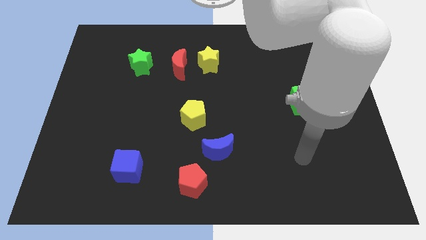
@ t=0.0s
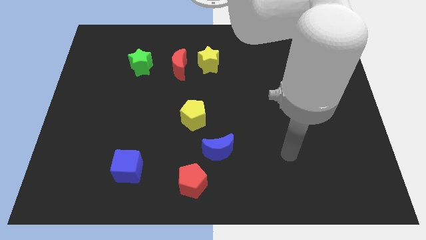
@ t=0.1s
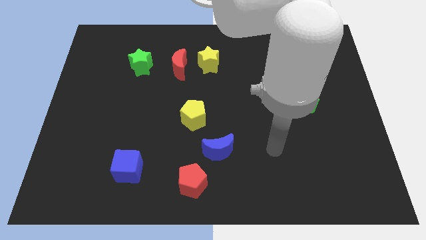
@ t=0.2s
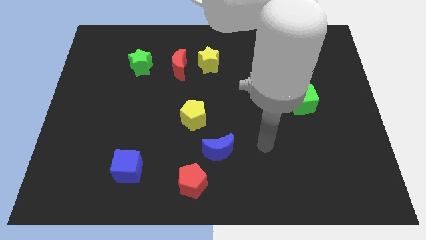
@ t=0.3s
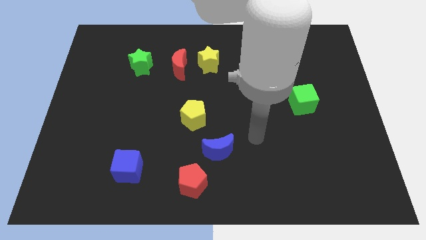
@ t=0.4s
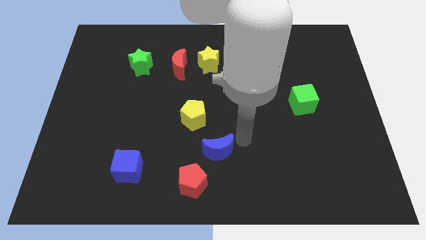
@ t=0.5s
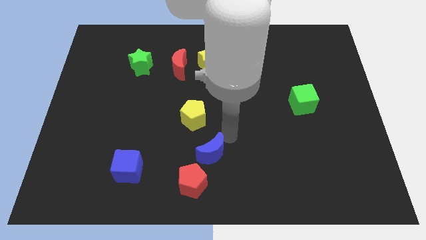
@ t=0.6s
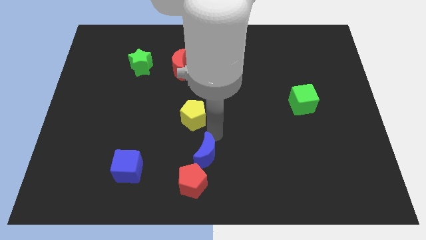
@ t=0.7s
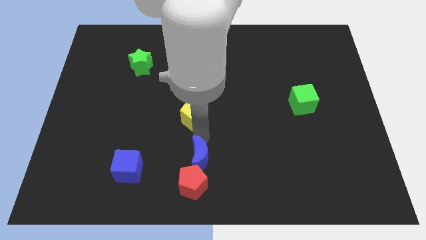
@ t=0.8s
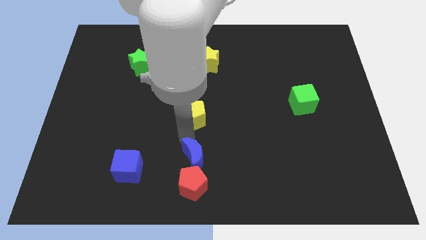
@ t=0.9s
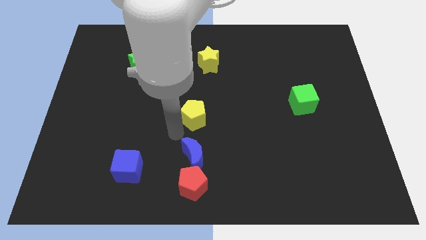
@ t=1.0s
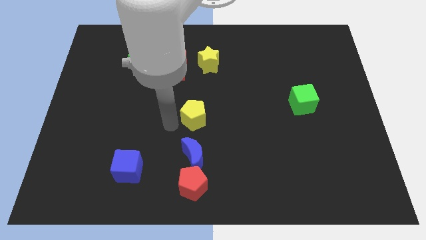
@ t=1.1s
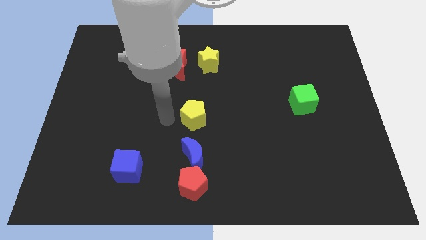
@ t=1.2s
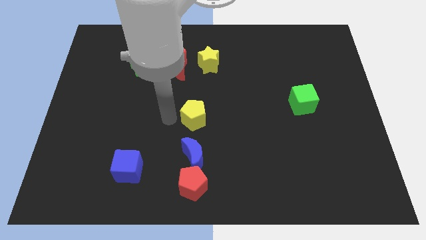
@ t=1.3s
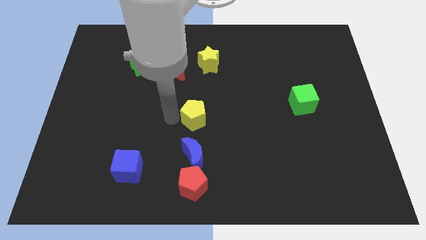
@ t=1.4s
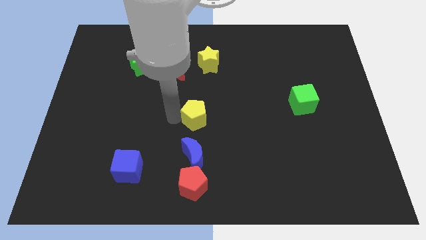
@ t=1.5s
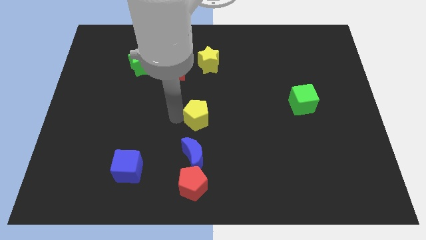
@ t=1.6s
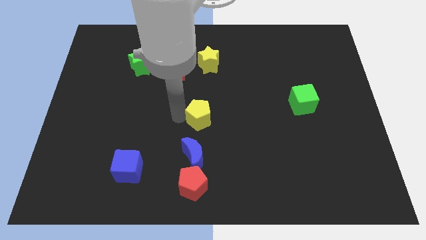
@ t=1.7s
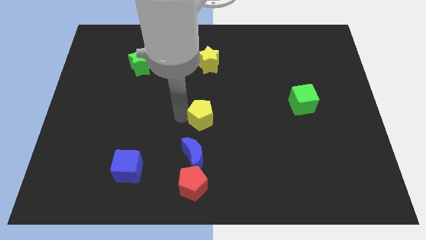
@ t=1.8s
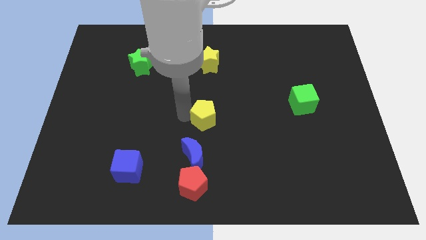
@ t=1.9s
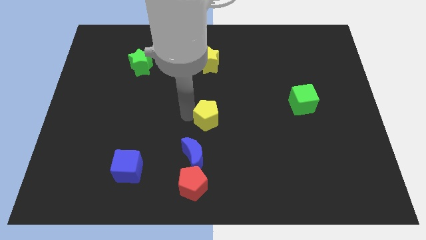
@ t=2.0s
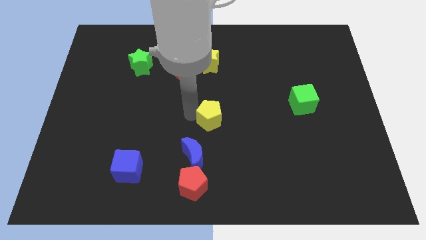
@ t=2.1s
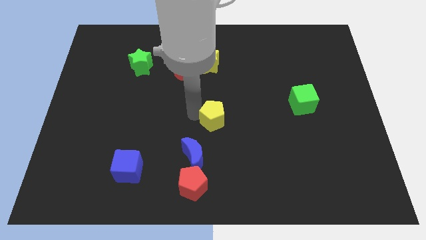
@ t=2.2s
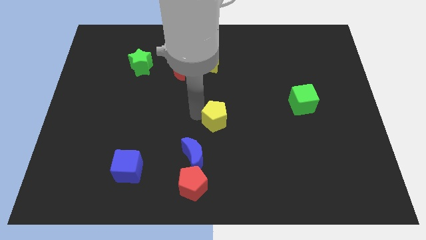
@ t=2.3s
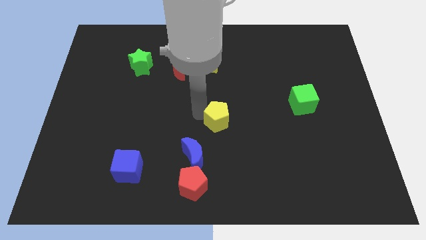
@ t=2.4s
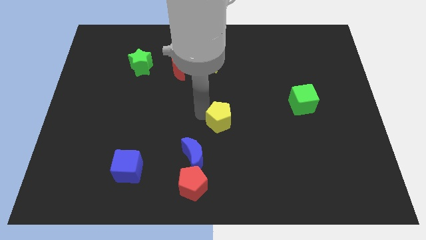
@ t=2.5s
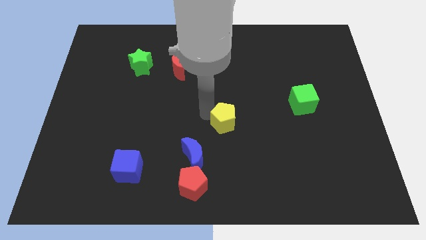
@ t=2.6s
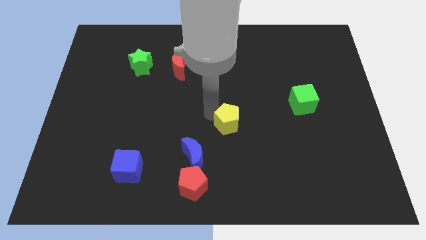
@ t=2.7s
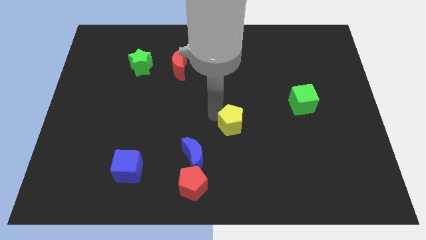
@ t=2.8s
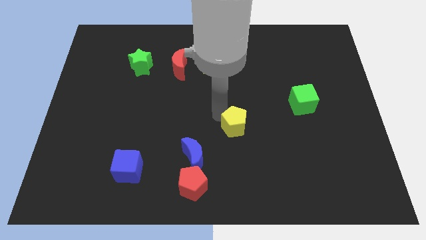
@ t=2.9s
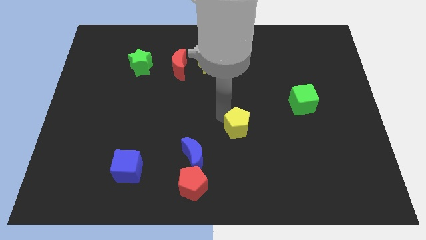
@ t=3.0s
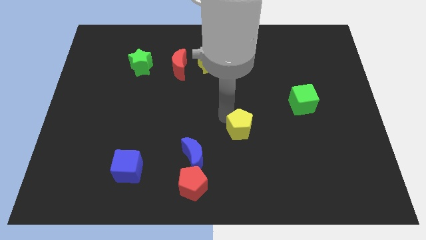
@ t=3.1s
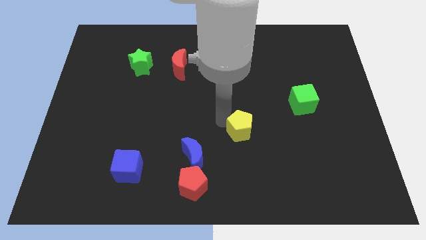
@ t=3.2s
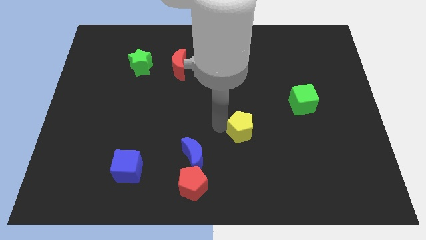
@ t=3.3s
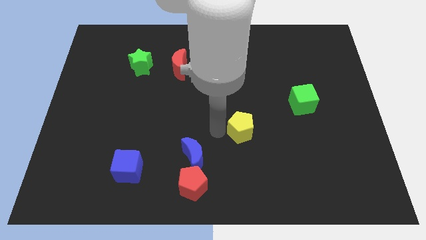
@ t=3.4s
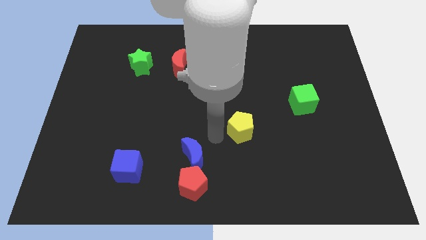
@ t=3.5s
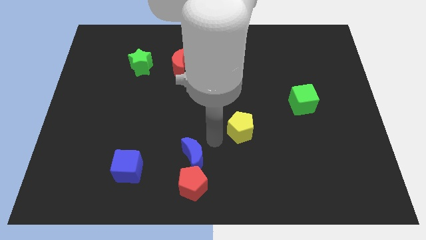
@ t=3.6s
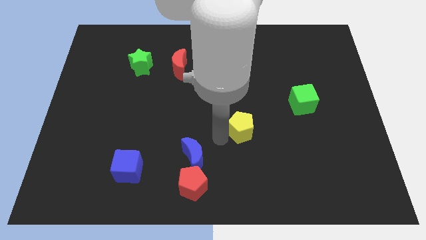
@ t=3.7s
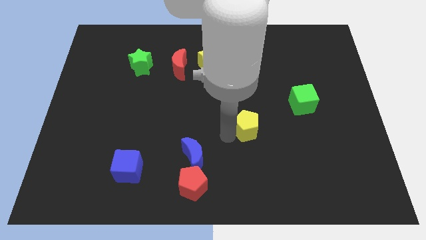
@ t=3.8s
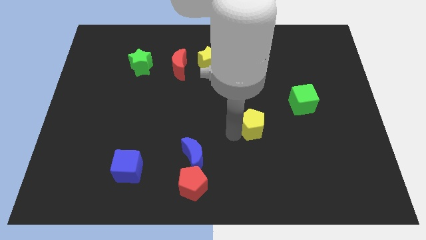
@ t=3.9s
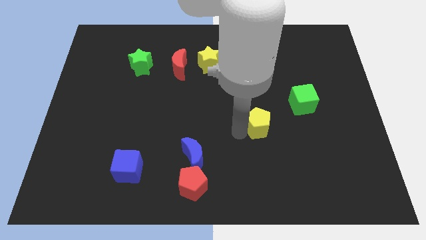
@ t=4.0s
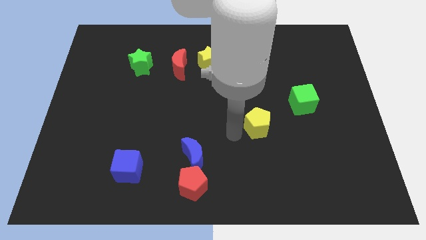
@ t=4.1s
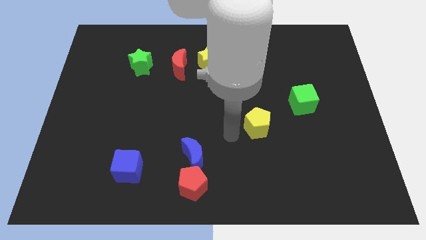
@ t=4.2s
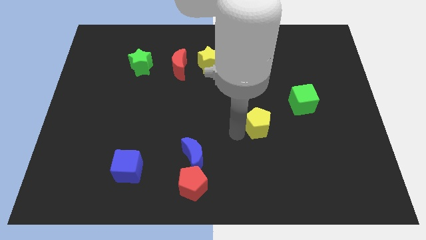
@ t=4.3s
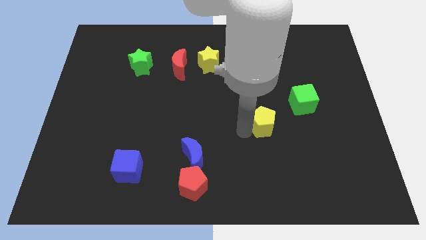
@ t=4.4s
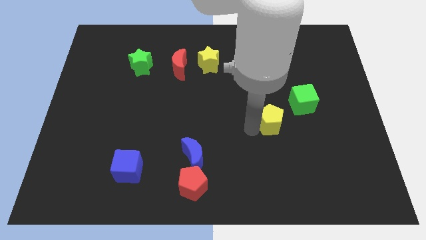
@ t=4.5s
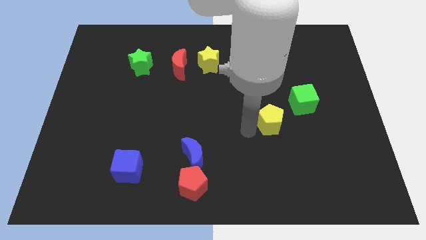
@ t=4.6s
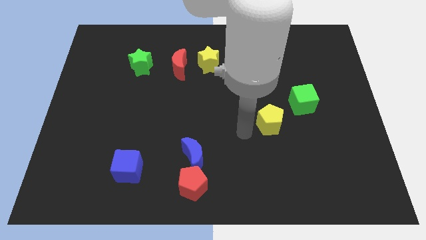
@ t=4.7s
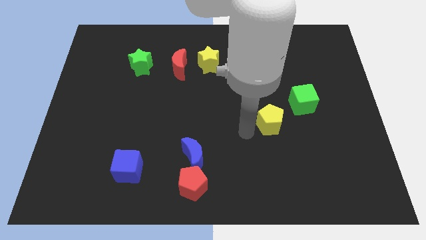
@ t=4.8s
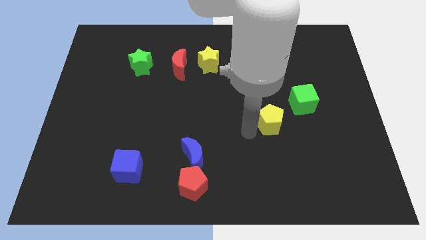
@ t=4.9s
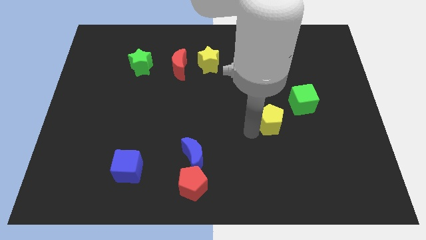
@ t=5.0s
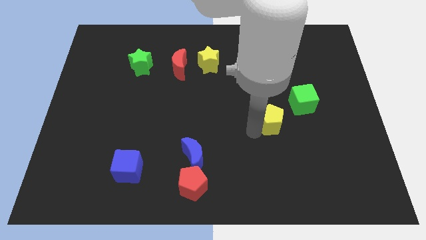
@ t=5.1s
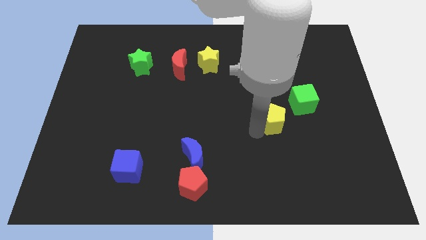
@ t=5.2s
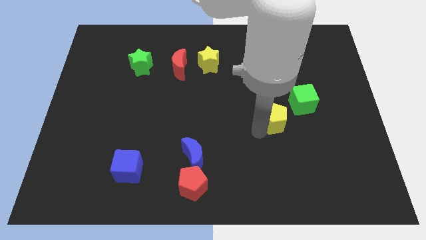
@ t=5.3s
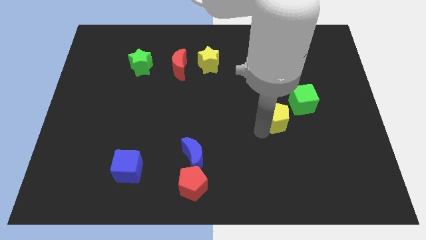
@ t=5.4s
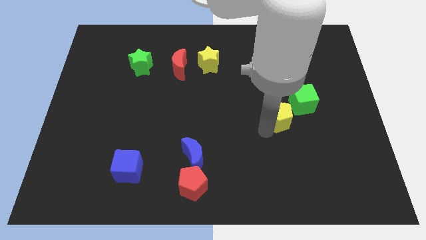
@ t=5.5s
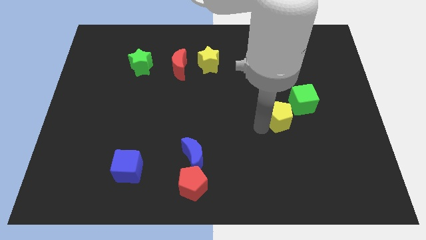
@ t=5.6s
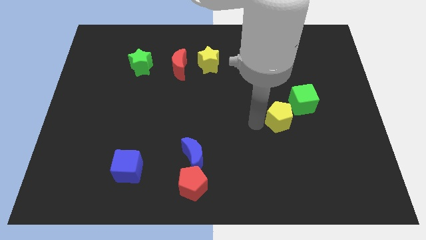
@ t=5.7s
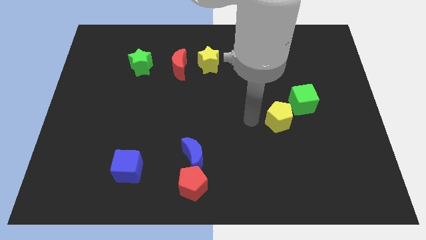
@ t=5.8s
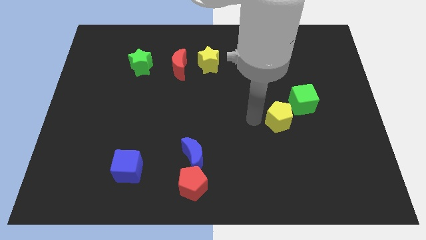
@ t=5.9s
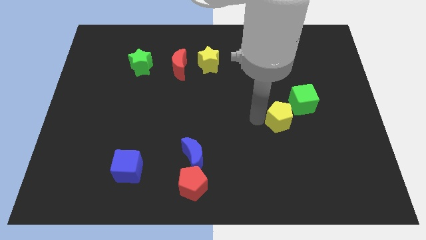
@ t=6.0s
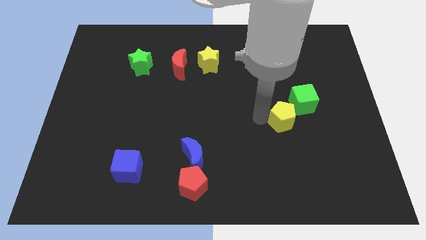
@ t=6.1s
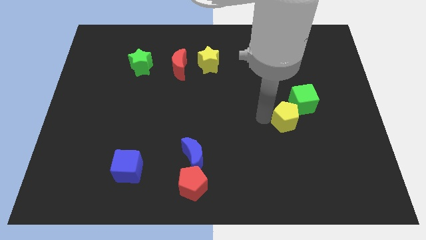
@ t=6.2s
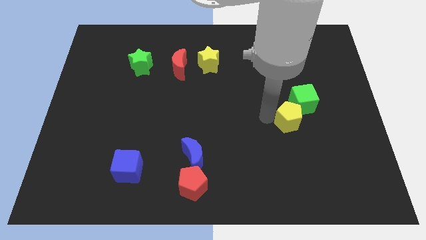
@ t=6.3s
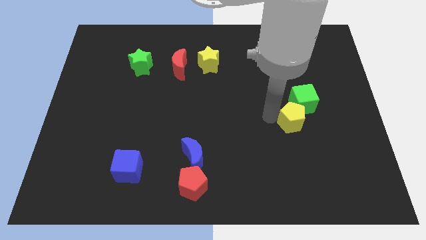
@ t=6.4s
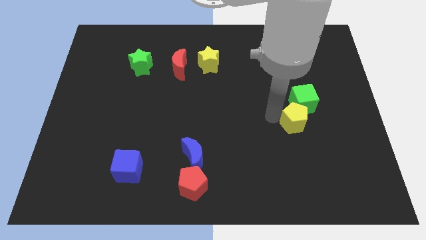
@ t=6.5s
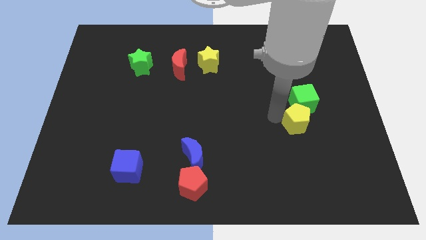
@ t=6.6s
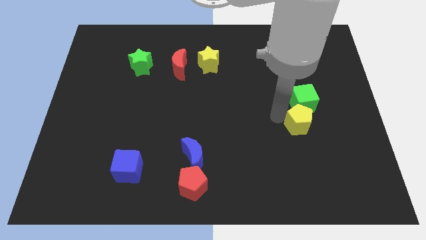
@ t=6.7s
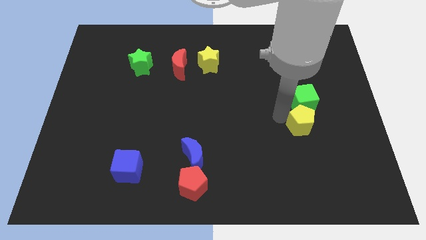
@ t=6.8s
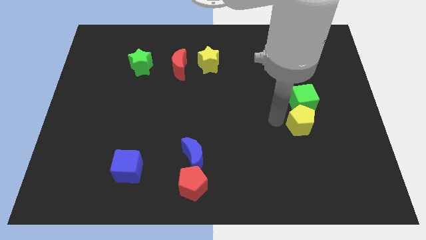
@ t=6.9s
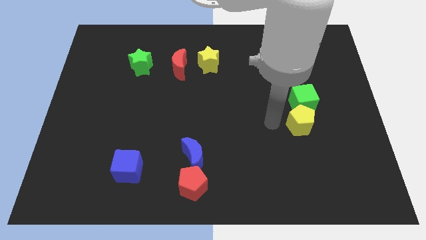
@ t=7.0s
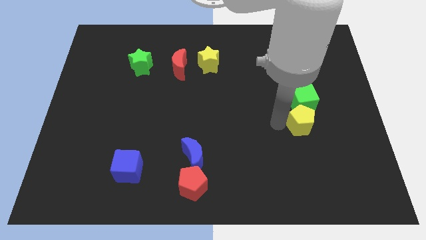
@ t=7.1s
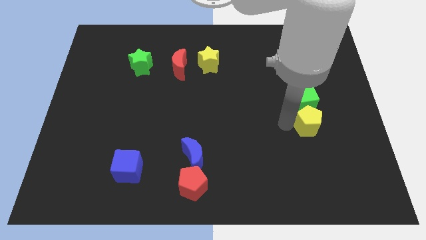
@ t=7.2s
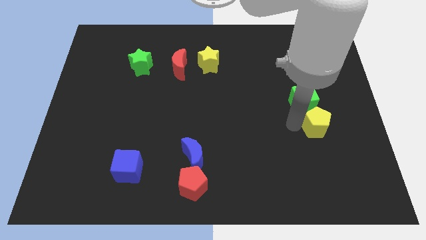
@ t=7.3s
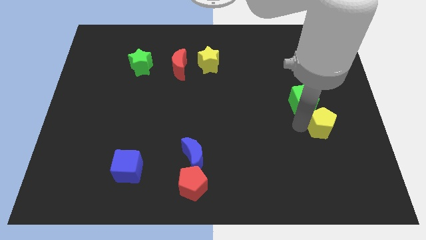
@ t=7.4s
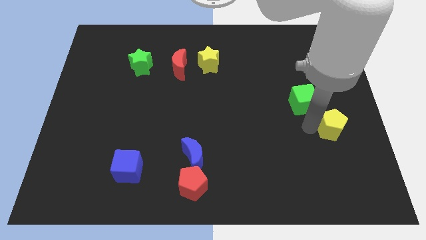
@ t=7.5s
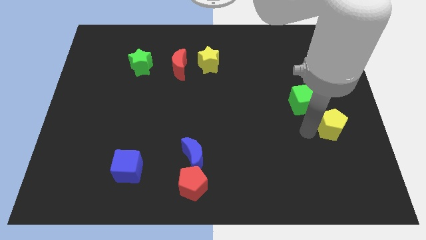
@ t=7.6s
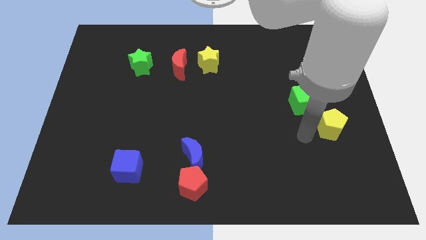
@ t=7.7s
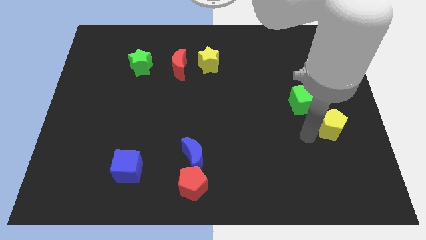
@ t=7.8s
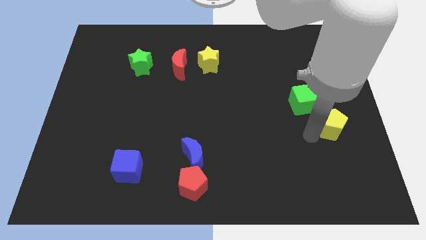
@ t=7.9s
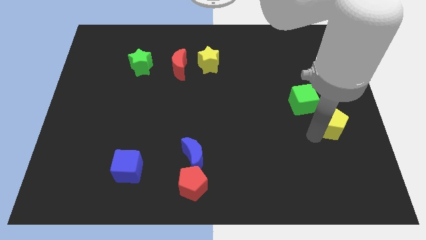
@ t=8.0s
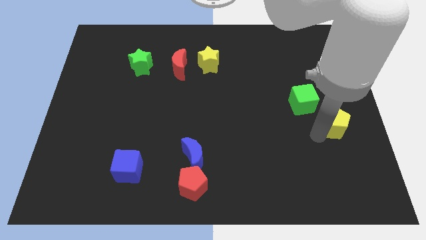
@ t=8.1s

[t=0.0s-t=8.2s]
move the yellow pentagon to the right side
